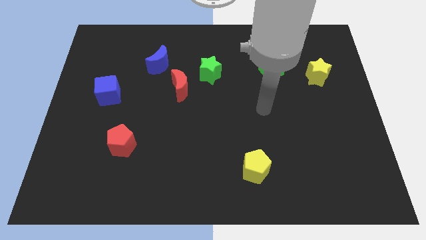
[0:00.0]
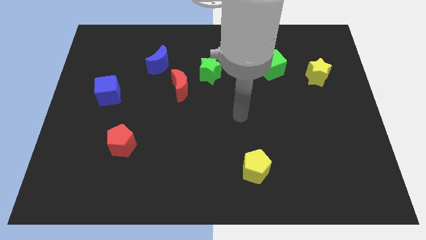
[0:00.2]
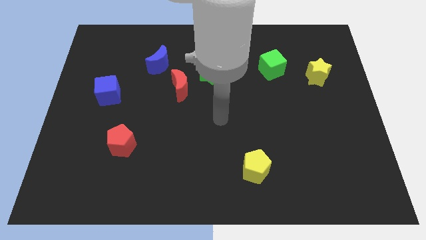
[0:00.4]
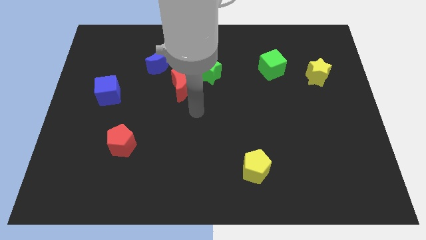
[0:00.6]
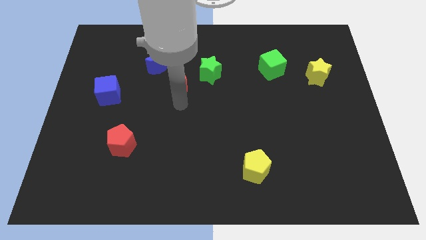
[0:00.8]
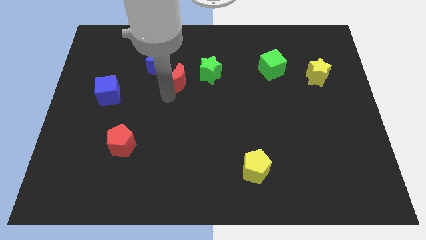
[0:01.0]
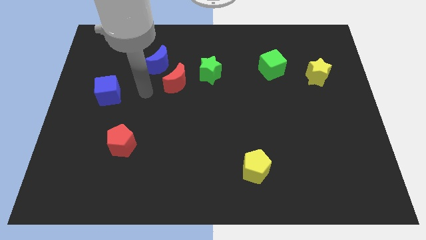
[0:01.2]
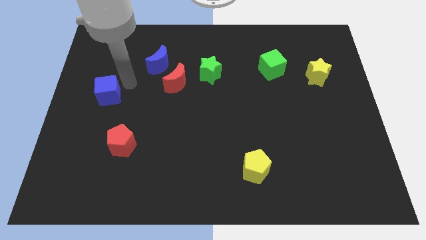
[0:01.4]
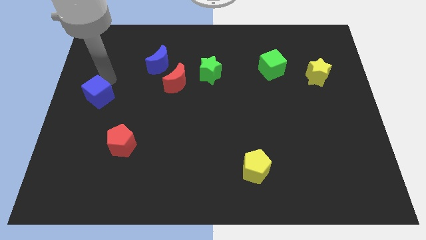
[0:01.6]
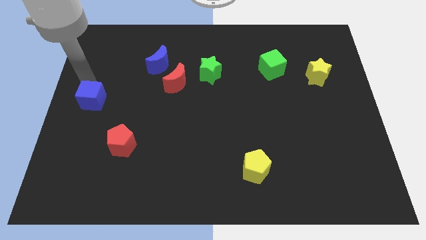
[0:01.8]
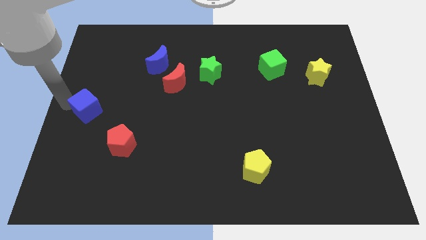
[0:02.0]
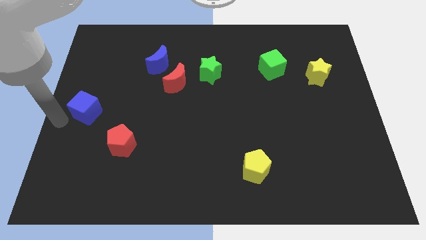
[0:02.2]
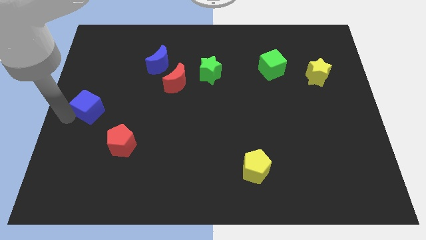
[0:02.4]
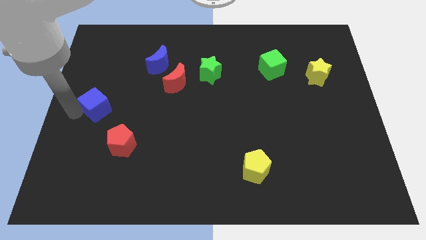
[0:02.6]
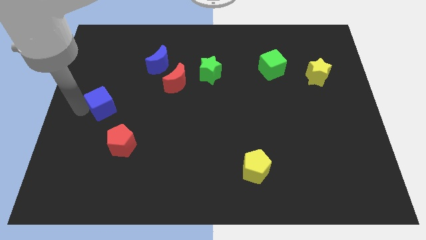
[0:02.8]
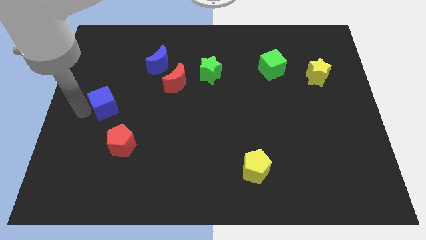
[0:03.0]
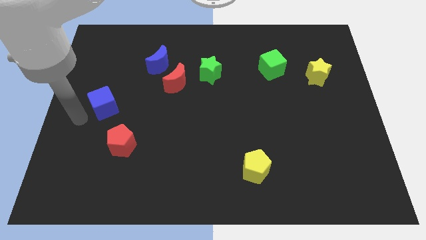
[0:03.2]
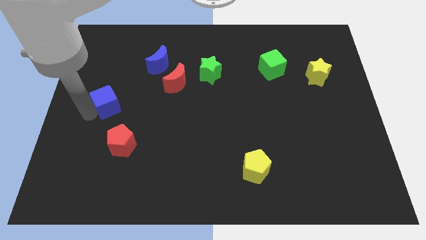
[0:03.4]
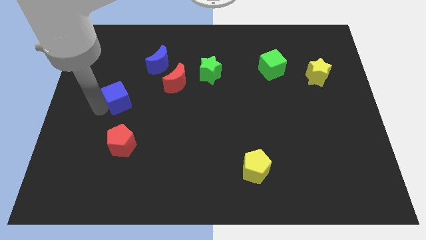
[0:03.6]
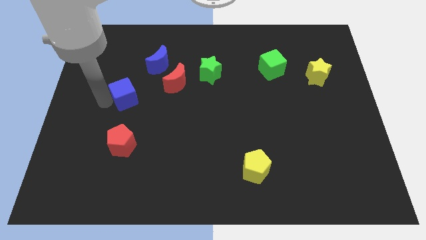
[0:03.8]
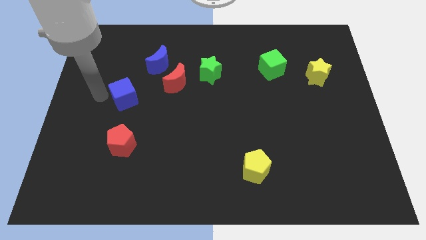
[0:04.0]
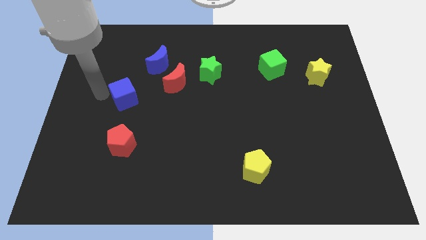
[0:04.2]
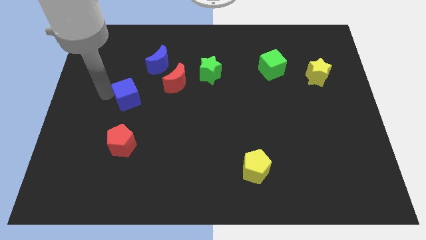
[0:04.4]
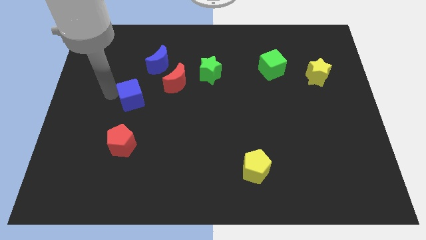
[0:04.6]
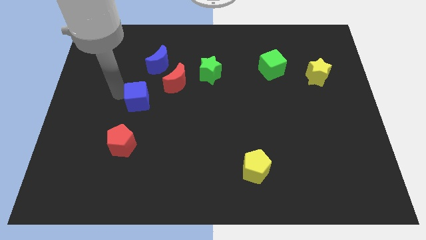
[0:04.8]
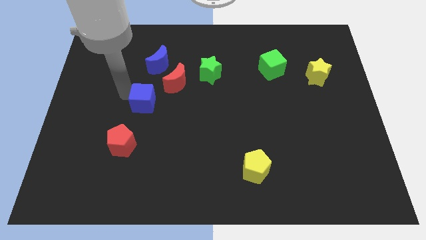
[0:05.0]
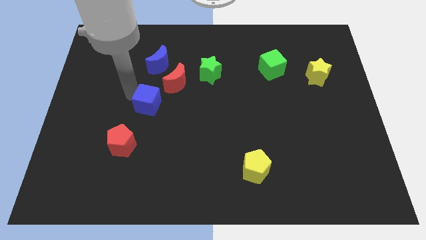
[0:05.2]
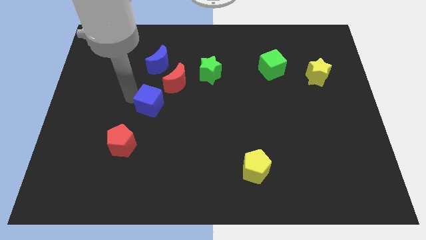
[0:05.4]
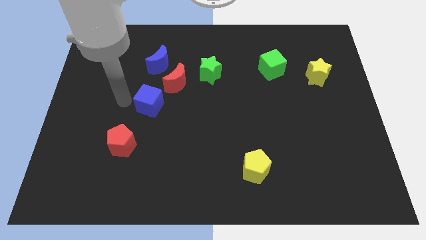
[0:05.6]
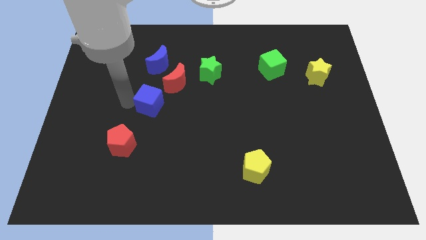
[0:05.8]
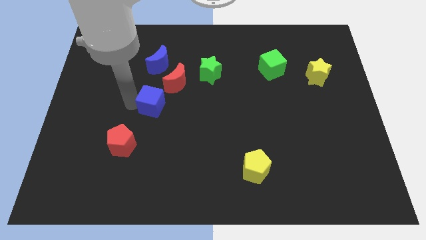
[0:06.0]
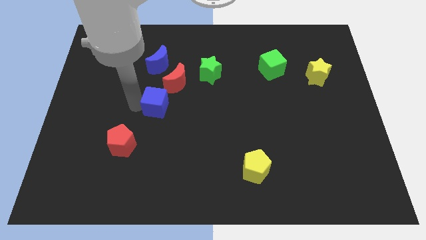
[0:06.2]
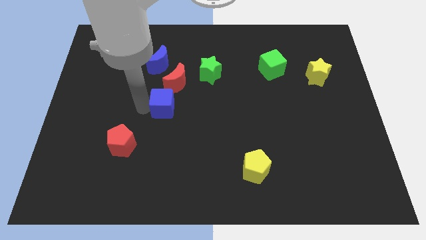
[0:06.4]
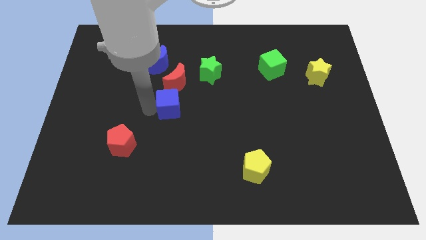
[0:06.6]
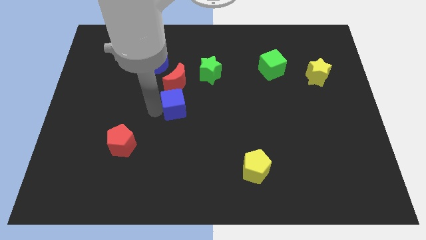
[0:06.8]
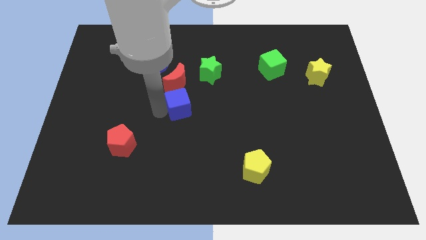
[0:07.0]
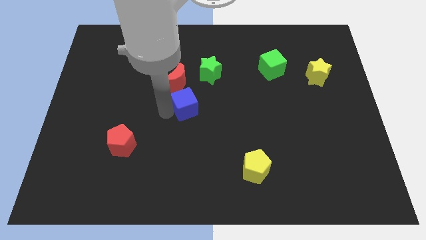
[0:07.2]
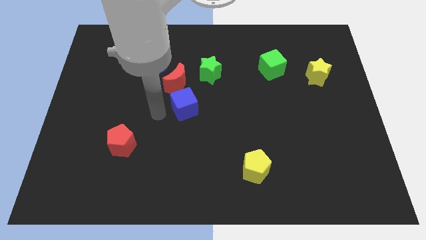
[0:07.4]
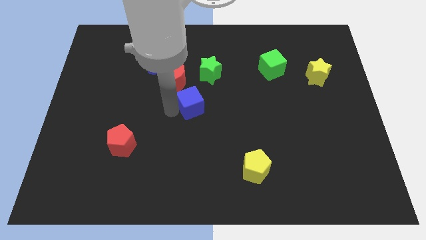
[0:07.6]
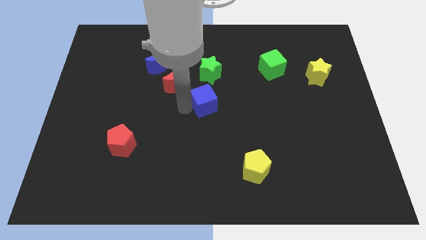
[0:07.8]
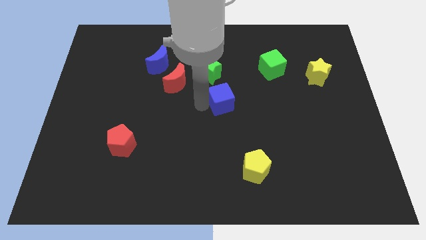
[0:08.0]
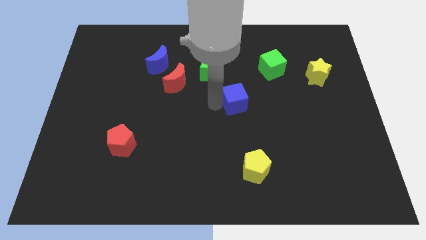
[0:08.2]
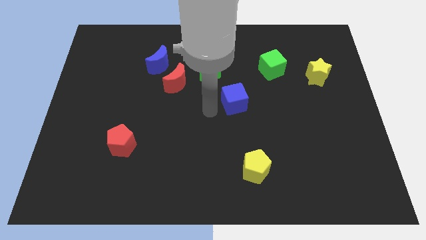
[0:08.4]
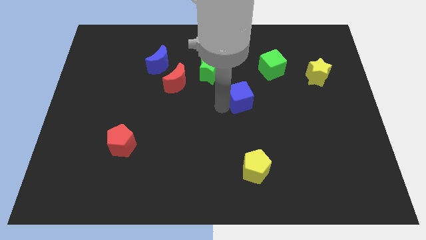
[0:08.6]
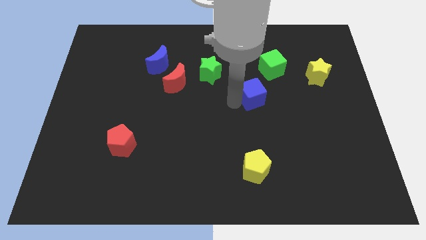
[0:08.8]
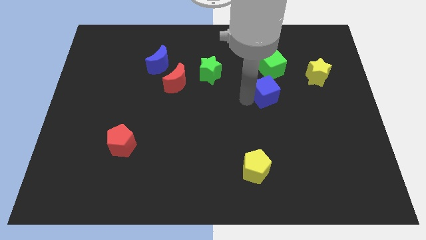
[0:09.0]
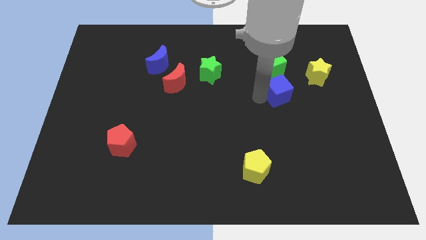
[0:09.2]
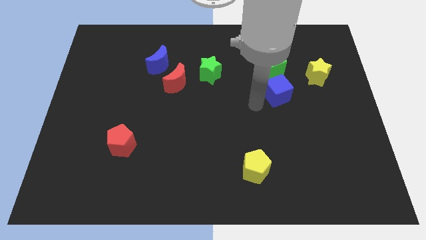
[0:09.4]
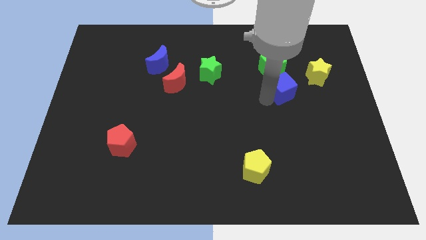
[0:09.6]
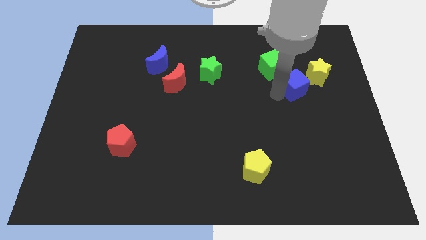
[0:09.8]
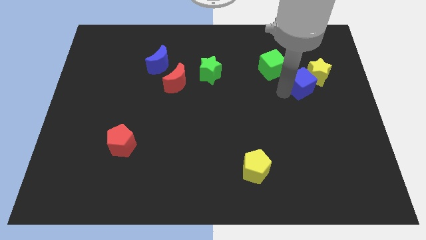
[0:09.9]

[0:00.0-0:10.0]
push the blue cube close to the yellow star

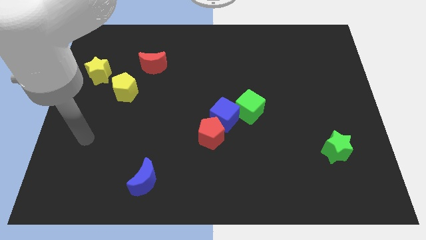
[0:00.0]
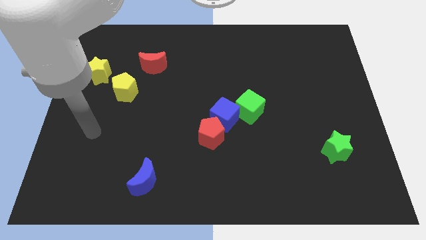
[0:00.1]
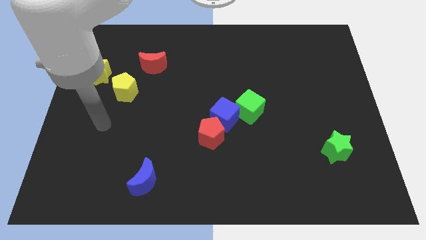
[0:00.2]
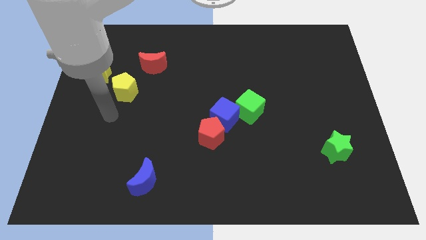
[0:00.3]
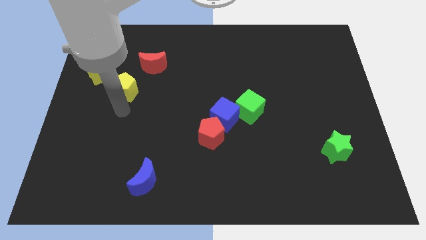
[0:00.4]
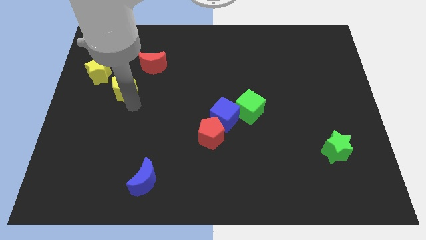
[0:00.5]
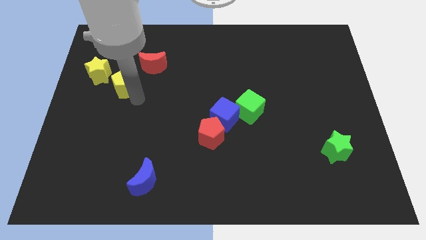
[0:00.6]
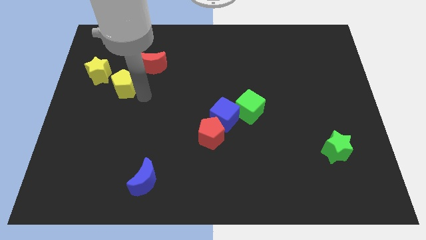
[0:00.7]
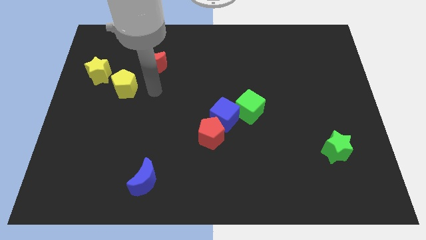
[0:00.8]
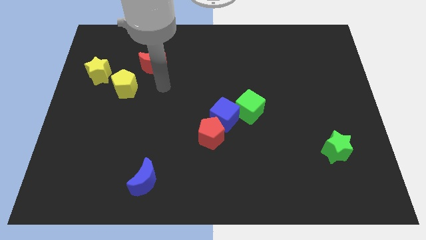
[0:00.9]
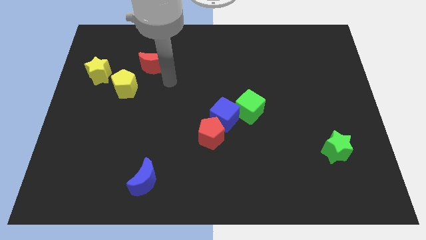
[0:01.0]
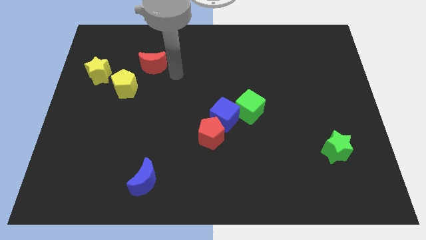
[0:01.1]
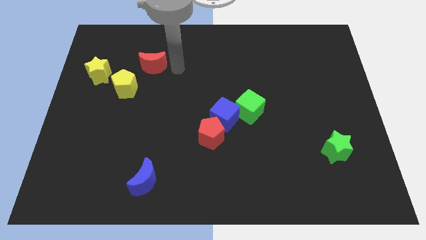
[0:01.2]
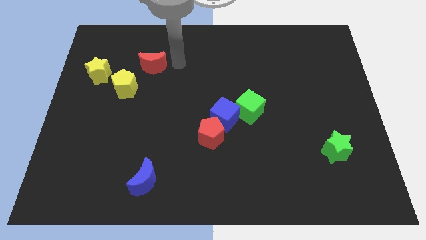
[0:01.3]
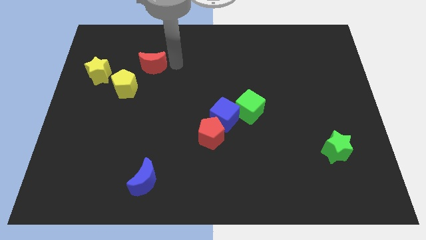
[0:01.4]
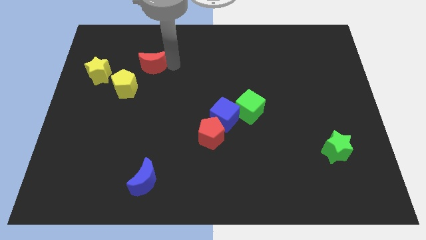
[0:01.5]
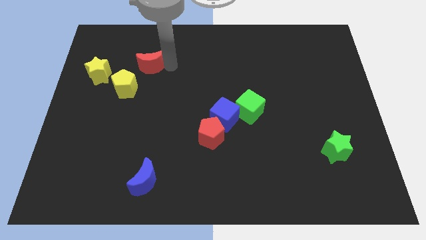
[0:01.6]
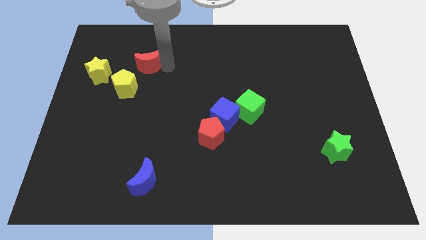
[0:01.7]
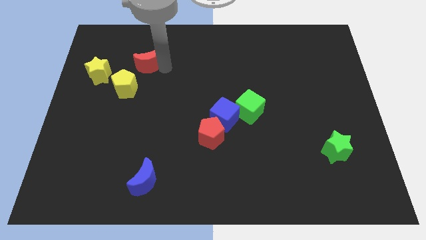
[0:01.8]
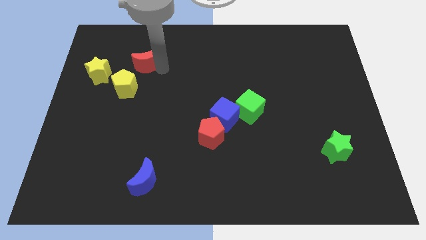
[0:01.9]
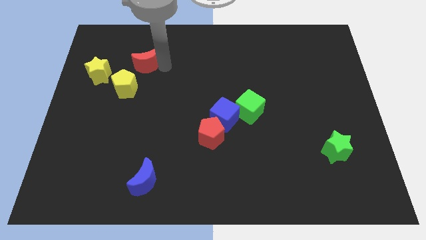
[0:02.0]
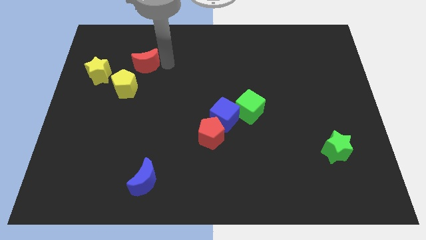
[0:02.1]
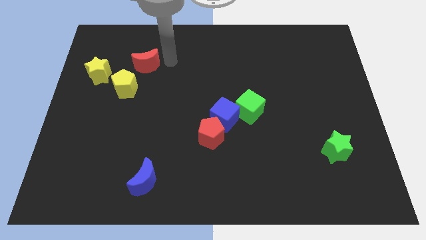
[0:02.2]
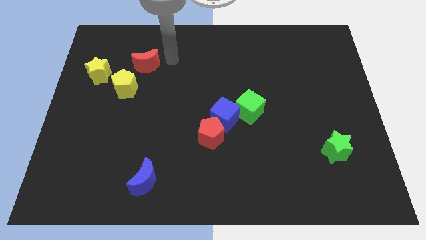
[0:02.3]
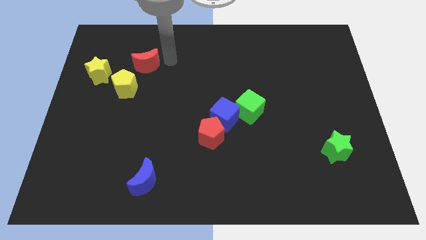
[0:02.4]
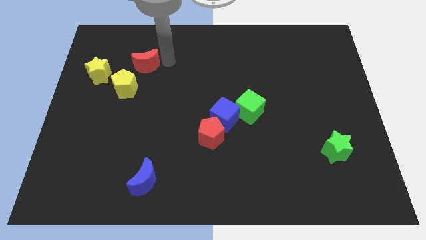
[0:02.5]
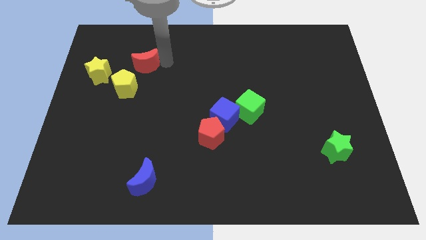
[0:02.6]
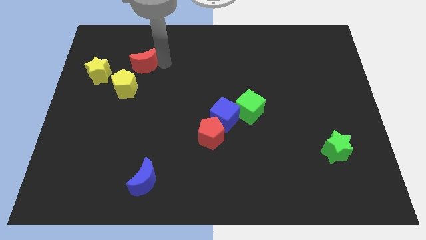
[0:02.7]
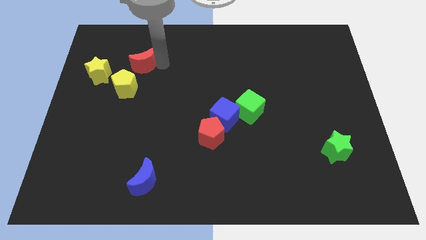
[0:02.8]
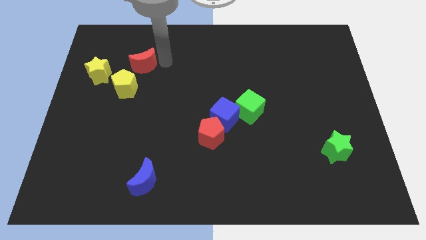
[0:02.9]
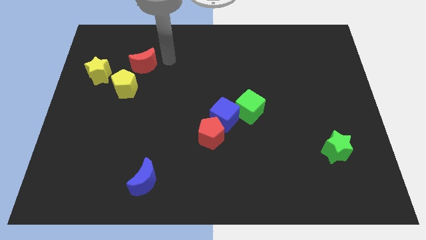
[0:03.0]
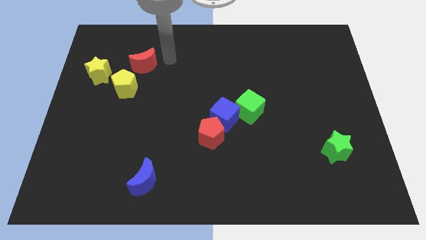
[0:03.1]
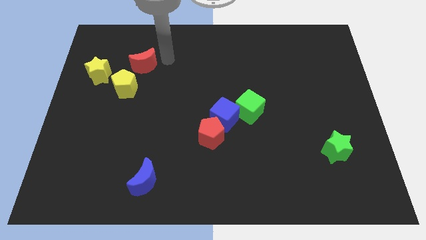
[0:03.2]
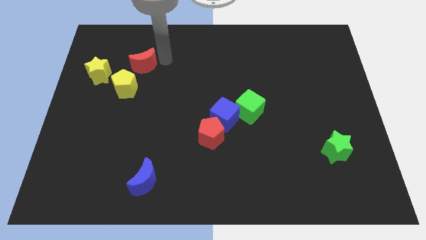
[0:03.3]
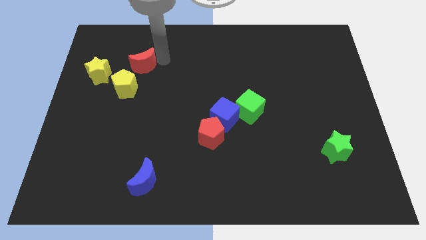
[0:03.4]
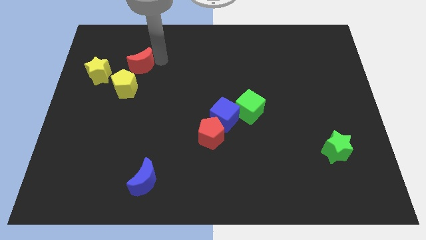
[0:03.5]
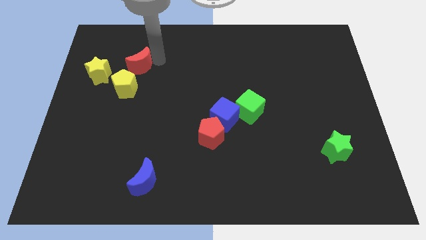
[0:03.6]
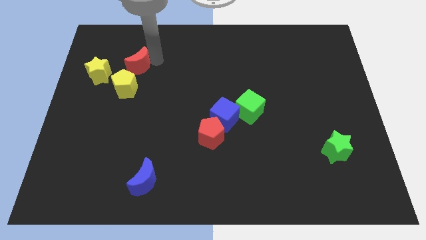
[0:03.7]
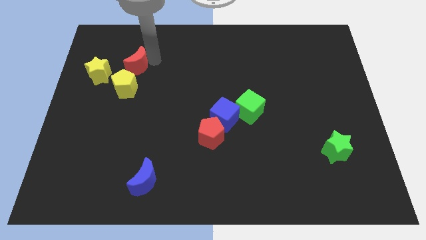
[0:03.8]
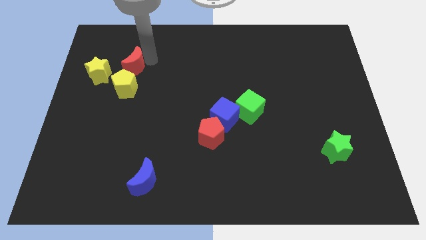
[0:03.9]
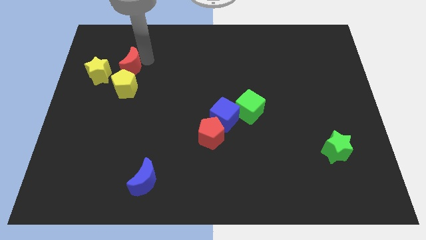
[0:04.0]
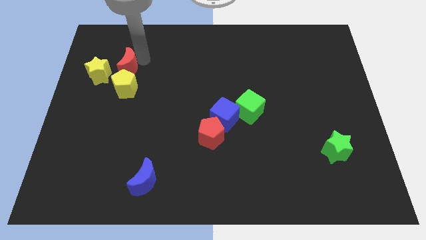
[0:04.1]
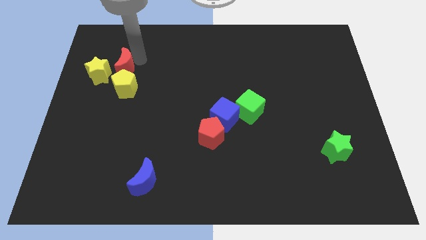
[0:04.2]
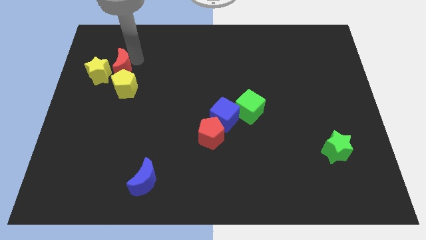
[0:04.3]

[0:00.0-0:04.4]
push the red moon next to the yellow star
